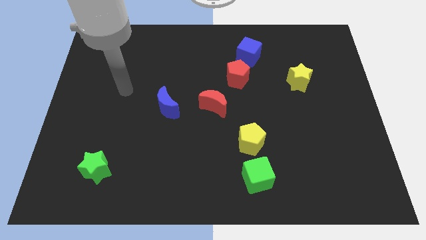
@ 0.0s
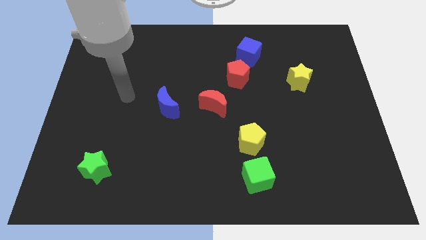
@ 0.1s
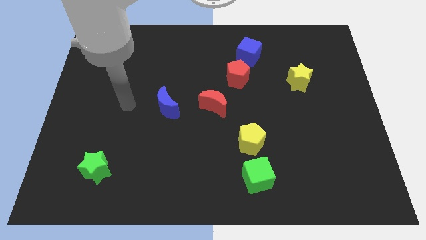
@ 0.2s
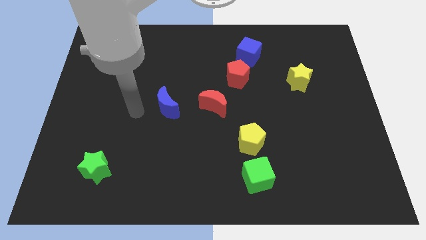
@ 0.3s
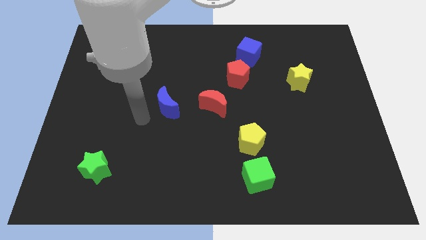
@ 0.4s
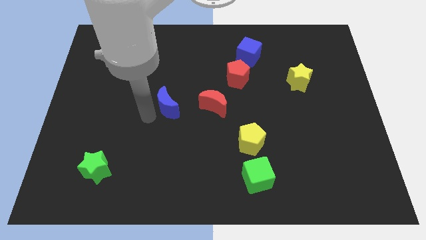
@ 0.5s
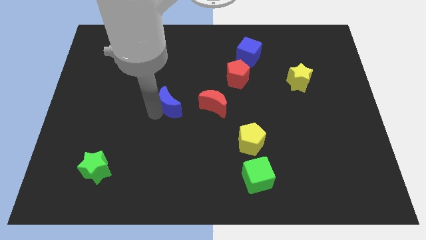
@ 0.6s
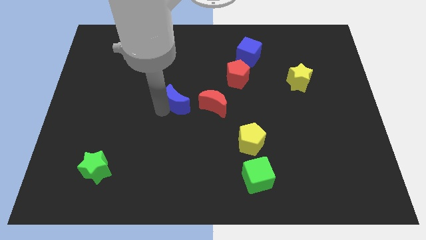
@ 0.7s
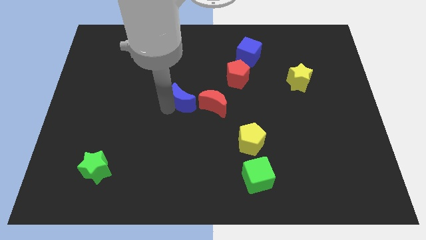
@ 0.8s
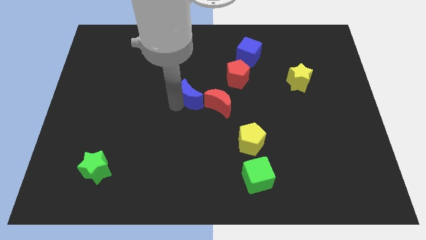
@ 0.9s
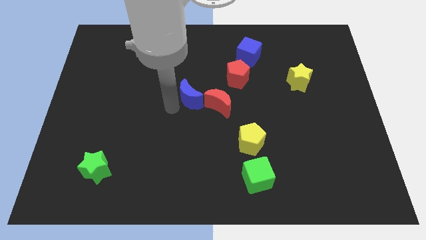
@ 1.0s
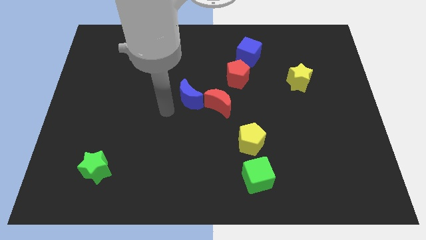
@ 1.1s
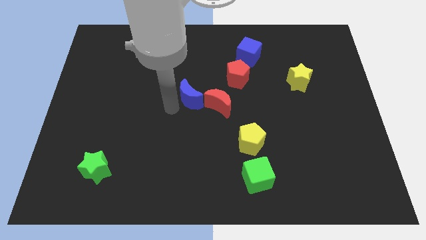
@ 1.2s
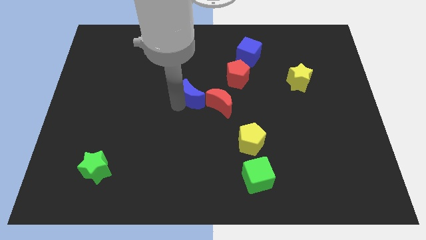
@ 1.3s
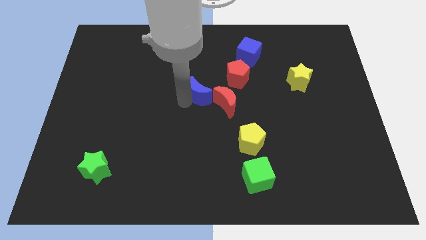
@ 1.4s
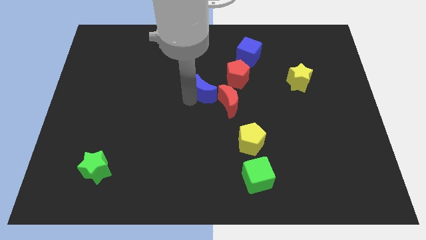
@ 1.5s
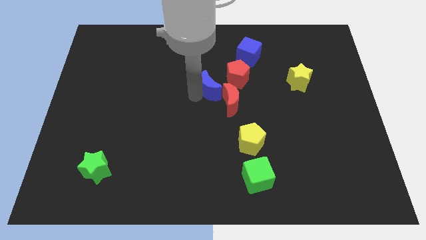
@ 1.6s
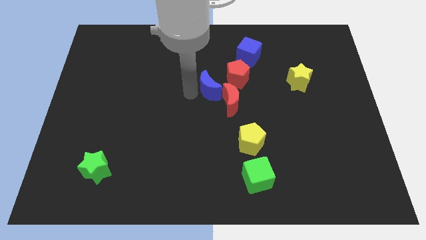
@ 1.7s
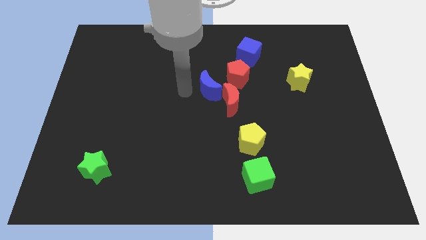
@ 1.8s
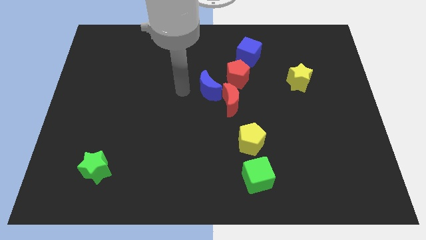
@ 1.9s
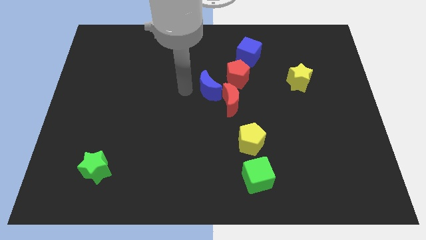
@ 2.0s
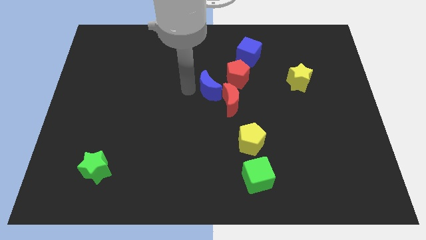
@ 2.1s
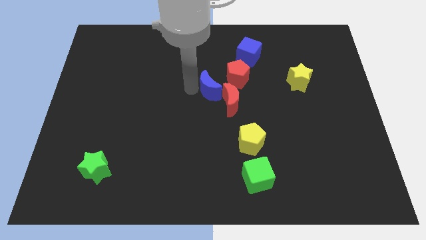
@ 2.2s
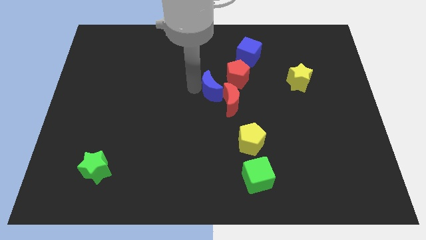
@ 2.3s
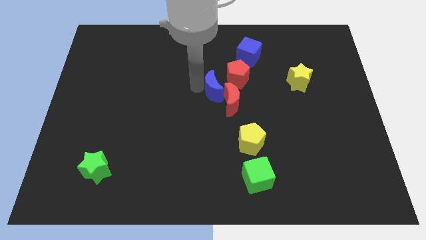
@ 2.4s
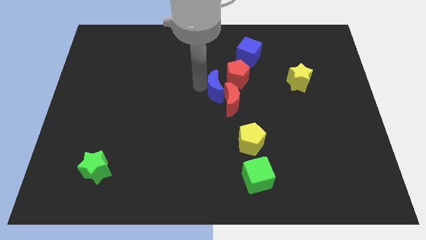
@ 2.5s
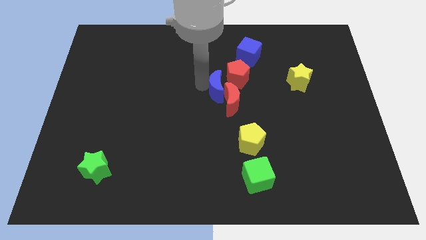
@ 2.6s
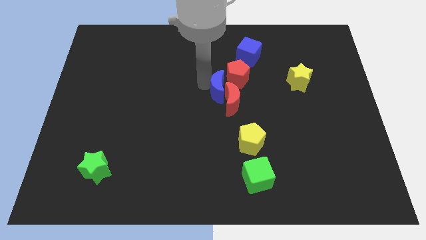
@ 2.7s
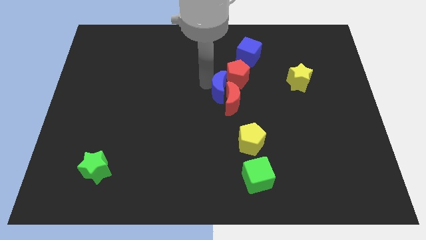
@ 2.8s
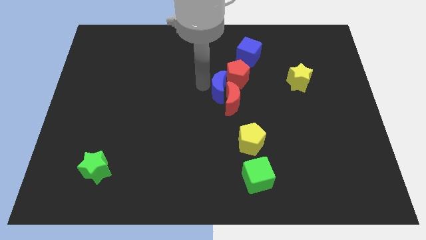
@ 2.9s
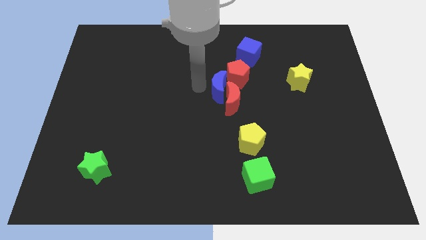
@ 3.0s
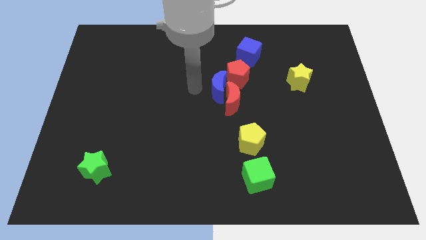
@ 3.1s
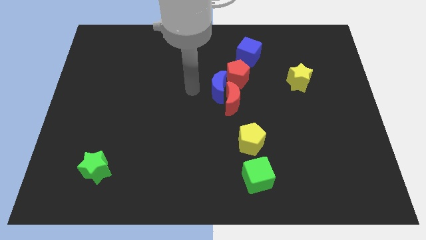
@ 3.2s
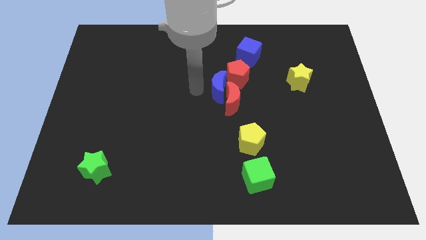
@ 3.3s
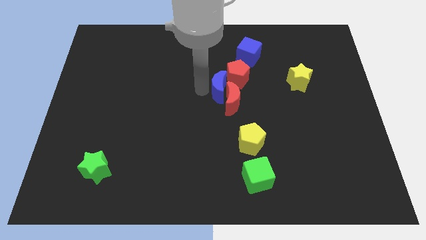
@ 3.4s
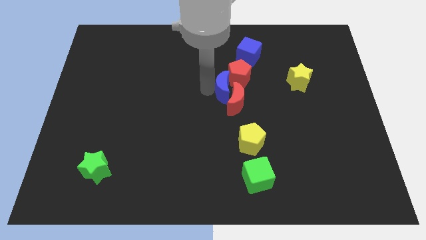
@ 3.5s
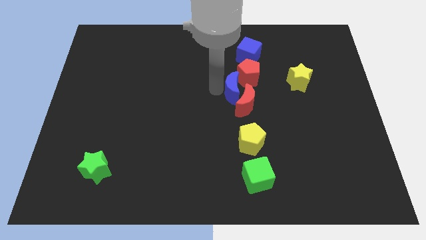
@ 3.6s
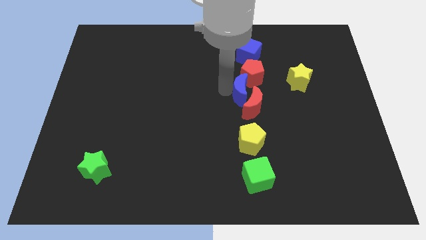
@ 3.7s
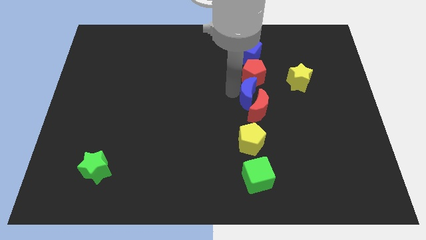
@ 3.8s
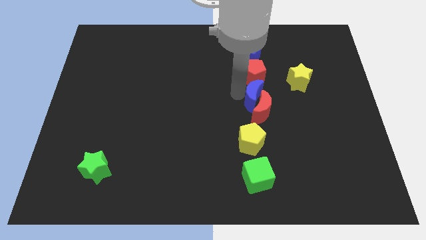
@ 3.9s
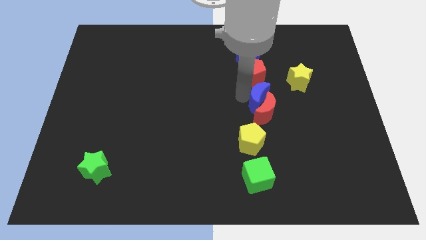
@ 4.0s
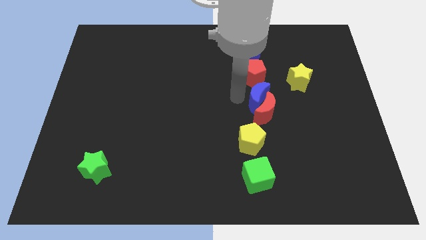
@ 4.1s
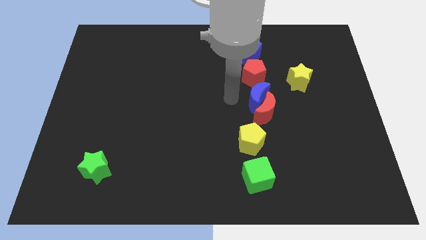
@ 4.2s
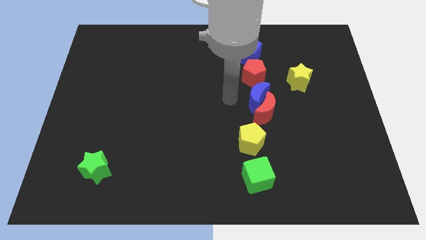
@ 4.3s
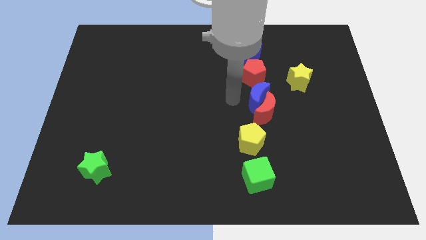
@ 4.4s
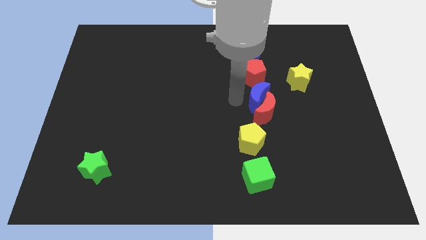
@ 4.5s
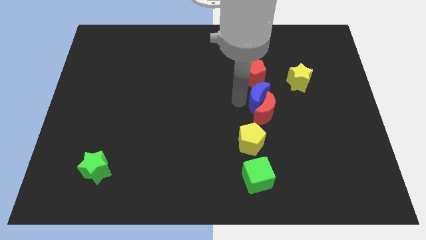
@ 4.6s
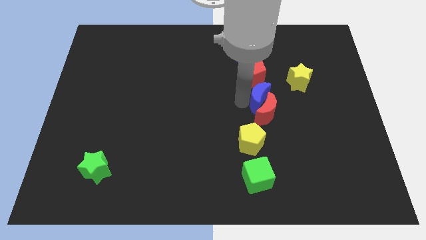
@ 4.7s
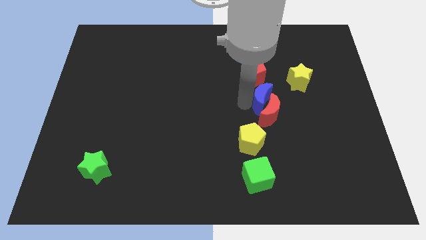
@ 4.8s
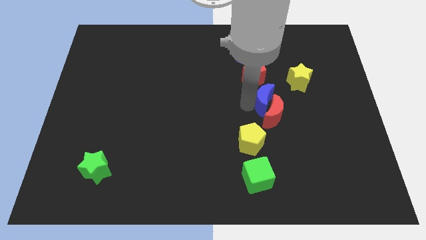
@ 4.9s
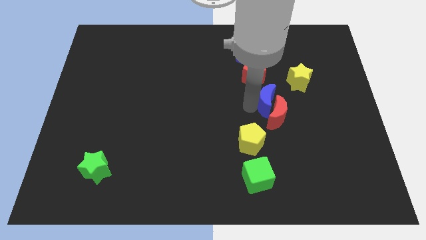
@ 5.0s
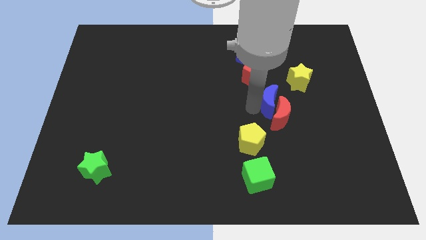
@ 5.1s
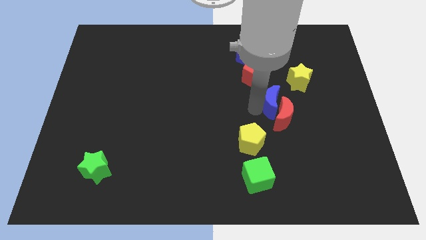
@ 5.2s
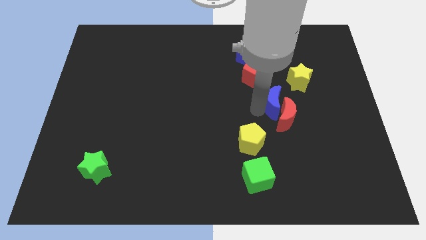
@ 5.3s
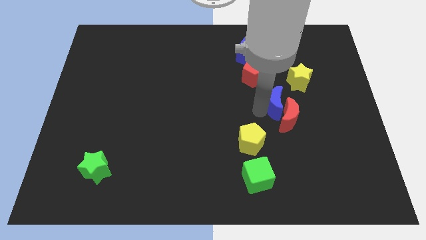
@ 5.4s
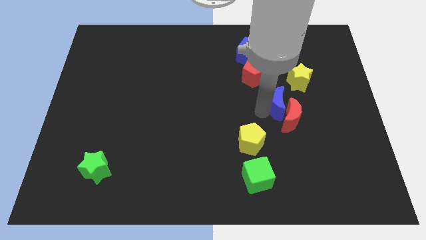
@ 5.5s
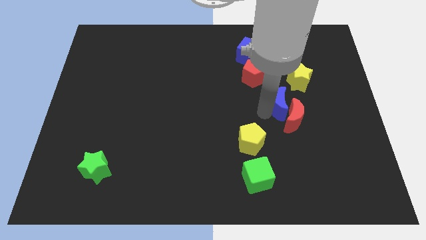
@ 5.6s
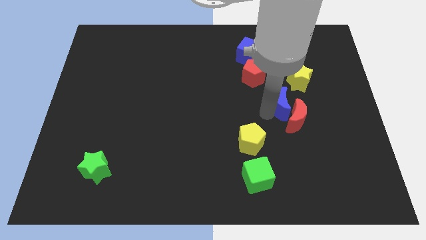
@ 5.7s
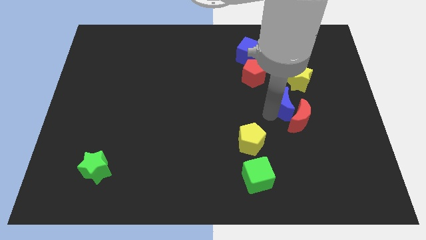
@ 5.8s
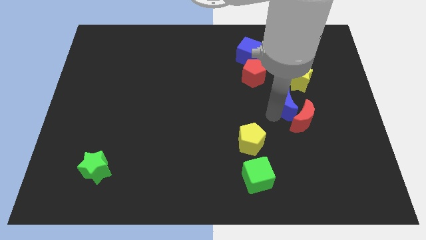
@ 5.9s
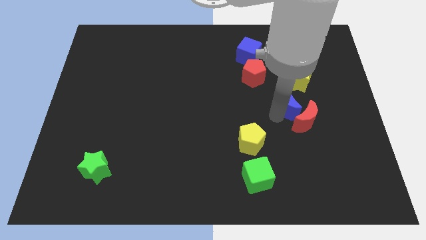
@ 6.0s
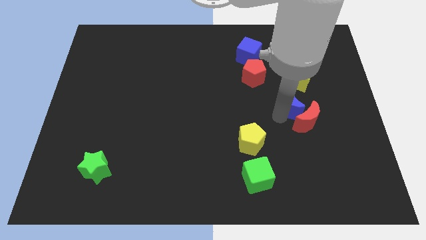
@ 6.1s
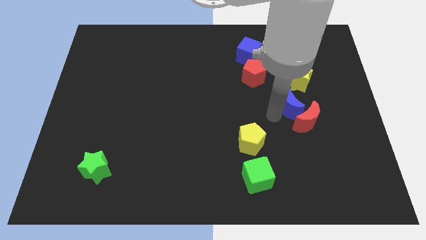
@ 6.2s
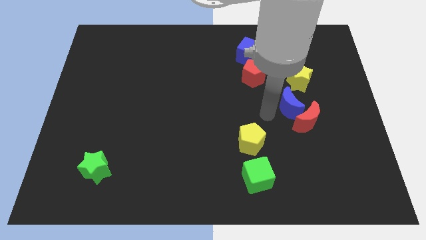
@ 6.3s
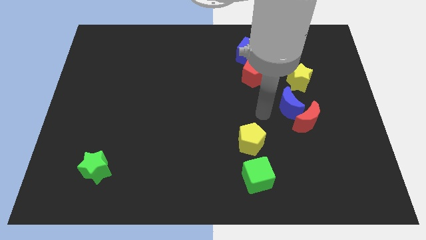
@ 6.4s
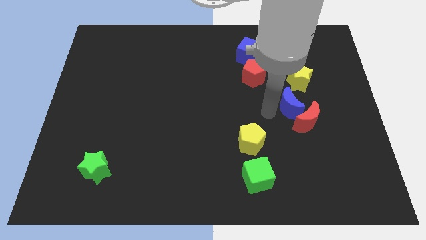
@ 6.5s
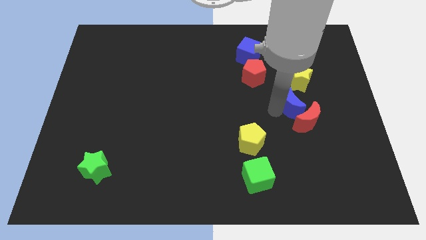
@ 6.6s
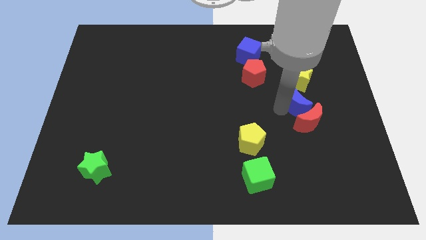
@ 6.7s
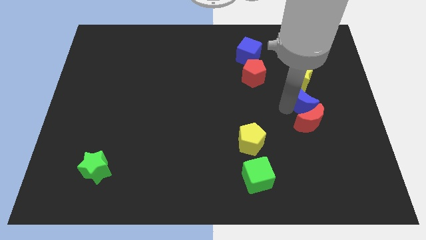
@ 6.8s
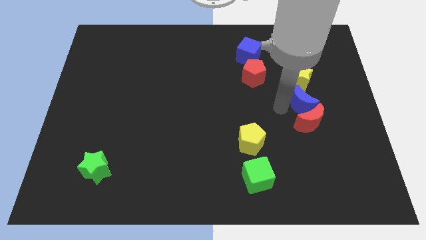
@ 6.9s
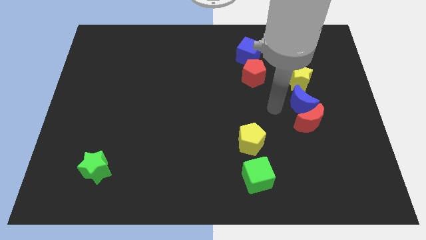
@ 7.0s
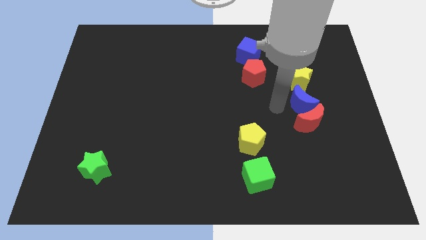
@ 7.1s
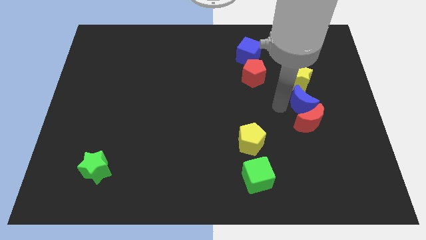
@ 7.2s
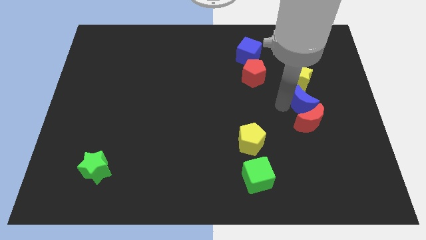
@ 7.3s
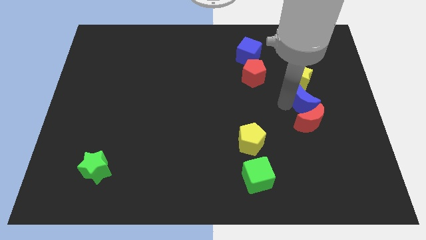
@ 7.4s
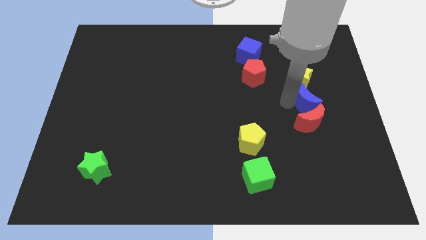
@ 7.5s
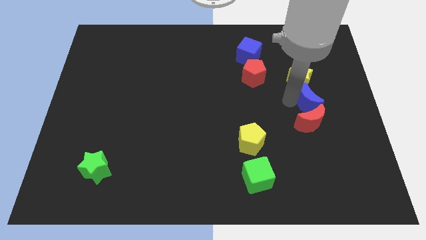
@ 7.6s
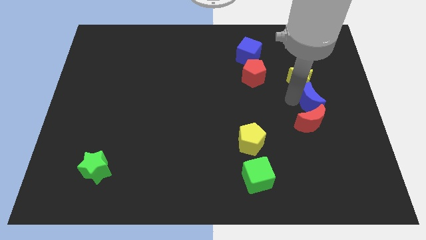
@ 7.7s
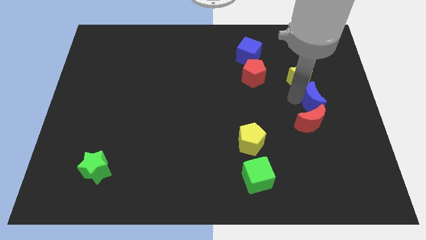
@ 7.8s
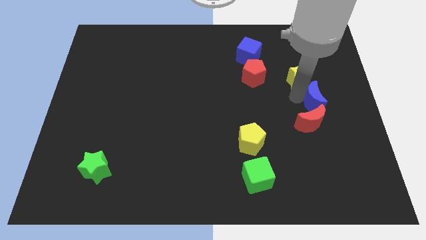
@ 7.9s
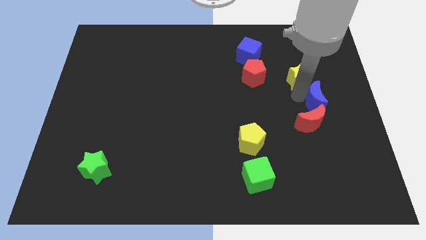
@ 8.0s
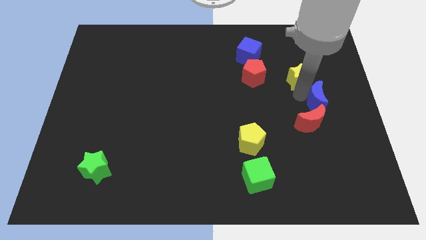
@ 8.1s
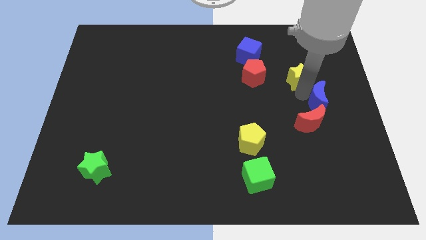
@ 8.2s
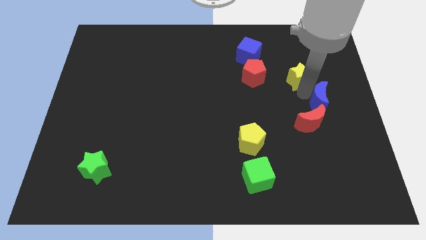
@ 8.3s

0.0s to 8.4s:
move the blue moon to the right side
